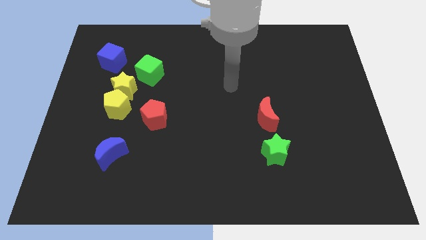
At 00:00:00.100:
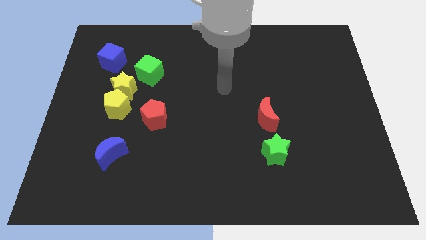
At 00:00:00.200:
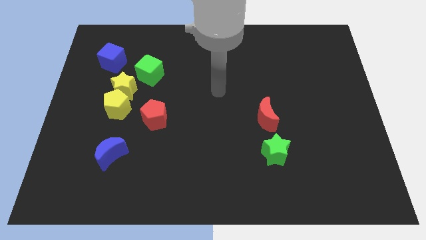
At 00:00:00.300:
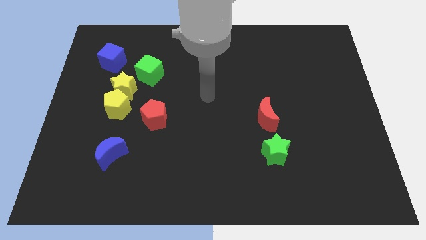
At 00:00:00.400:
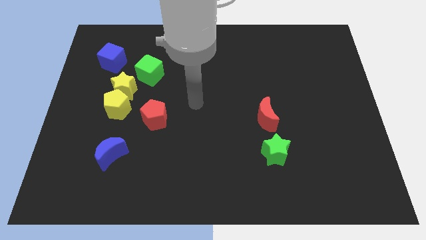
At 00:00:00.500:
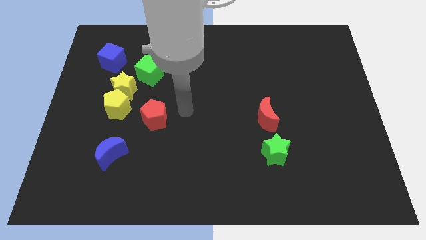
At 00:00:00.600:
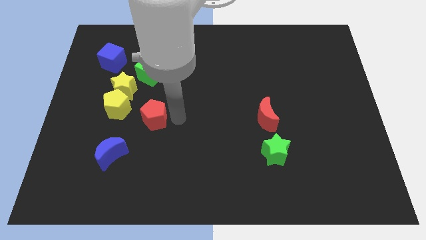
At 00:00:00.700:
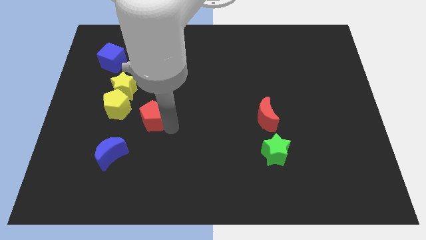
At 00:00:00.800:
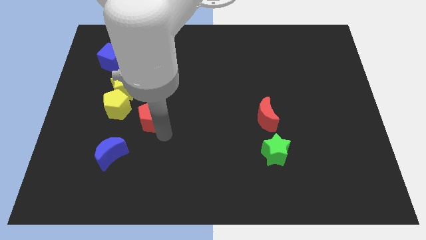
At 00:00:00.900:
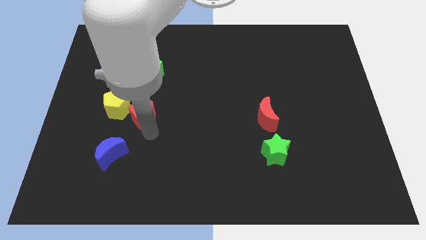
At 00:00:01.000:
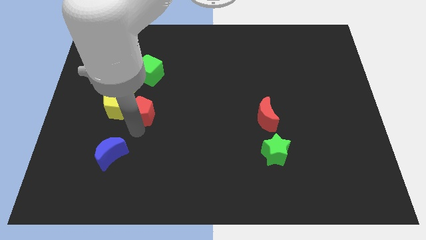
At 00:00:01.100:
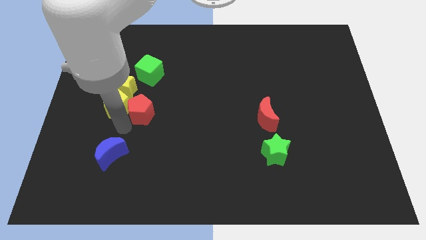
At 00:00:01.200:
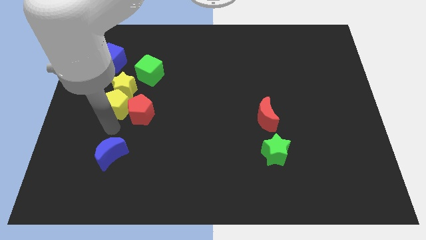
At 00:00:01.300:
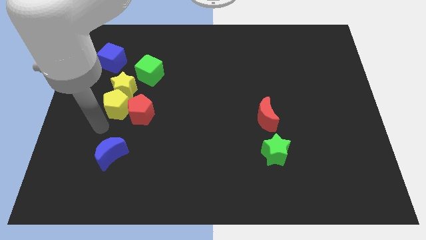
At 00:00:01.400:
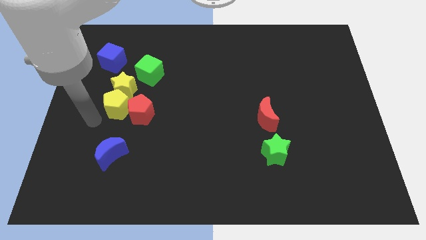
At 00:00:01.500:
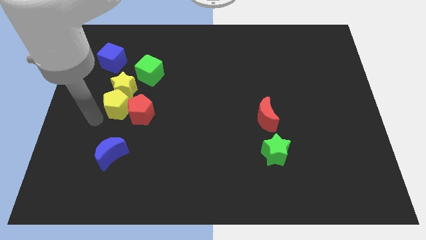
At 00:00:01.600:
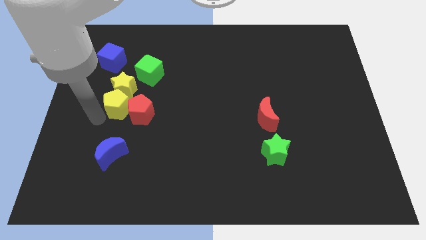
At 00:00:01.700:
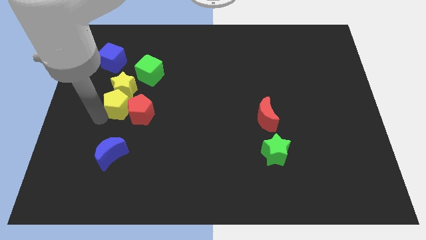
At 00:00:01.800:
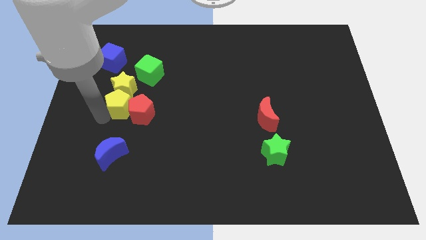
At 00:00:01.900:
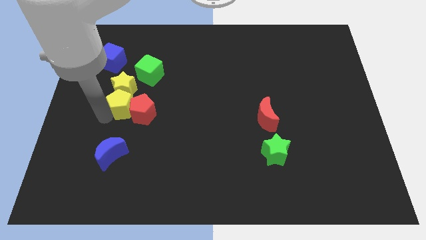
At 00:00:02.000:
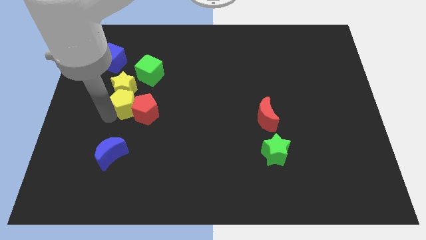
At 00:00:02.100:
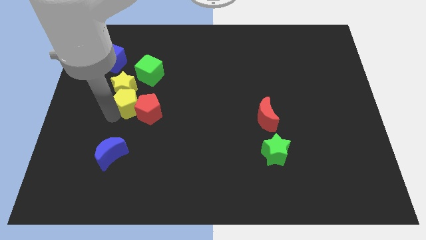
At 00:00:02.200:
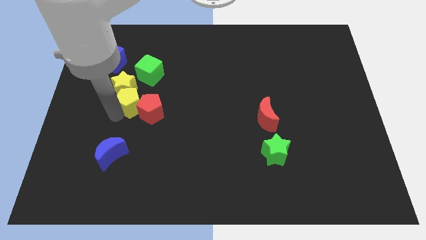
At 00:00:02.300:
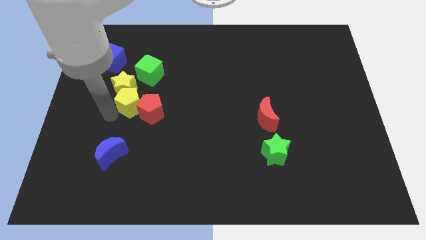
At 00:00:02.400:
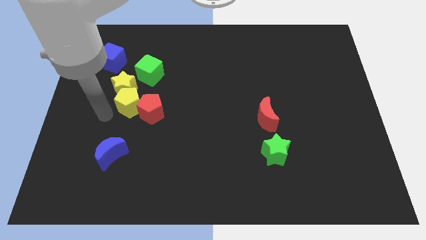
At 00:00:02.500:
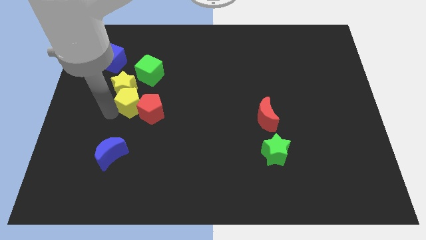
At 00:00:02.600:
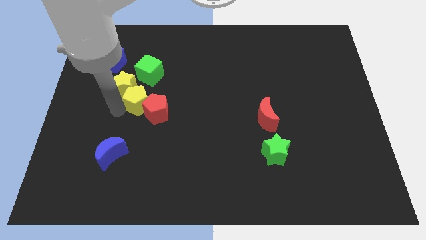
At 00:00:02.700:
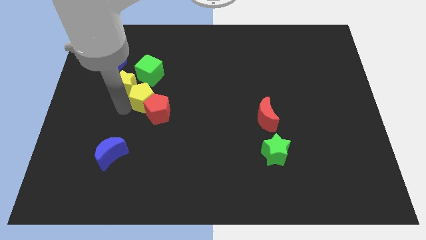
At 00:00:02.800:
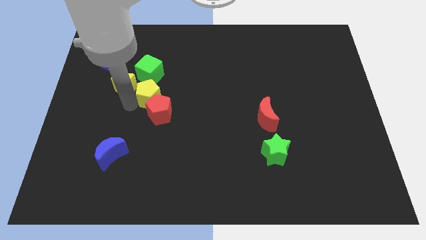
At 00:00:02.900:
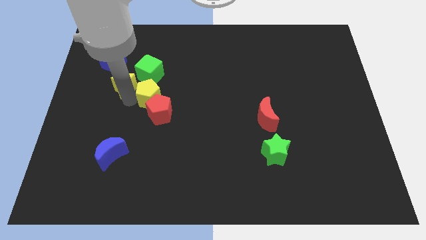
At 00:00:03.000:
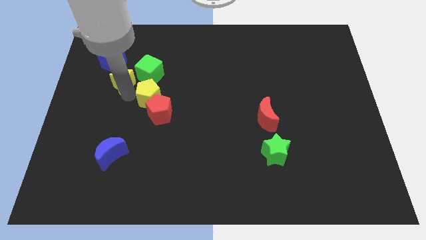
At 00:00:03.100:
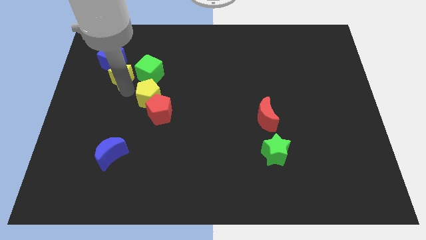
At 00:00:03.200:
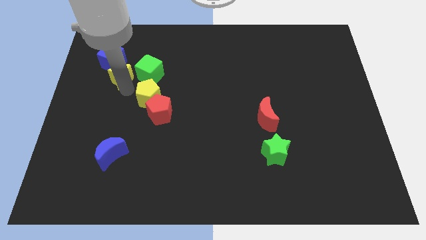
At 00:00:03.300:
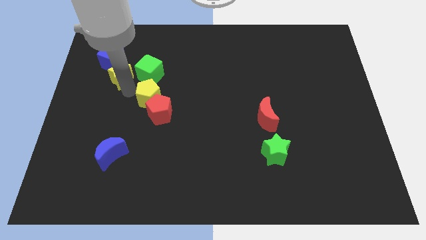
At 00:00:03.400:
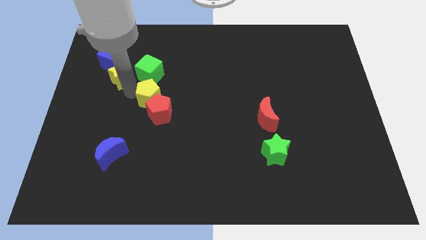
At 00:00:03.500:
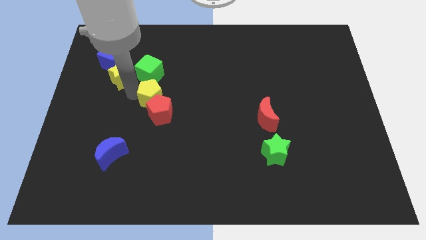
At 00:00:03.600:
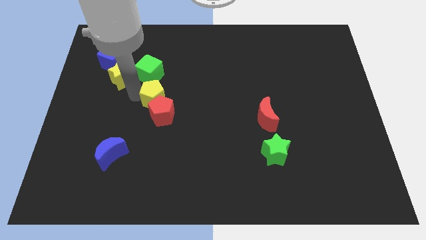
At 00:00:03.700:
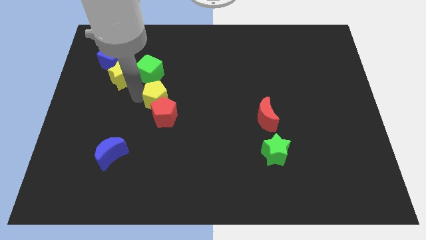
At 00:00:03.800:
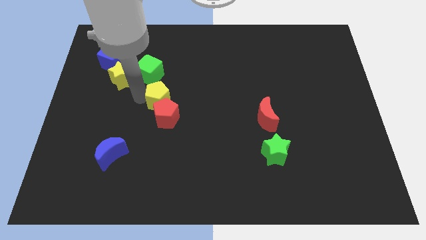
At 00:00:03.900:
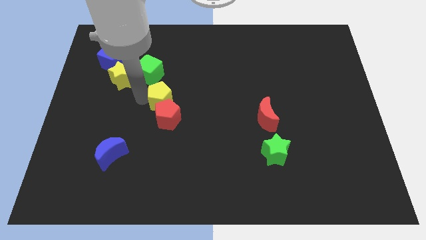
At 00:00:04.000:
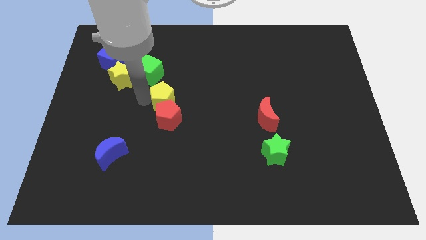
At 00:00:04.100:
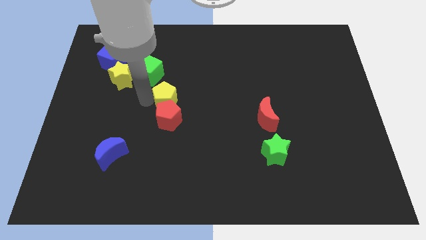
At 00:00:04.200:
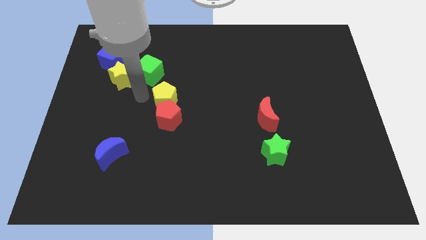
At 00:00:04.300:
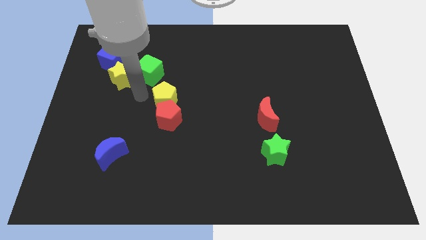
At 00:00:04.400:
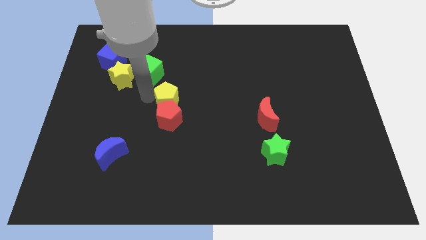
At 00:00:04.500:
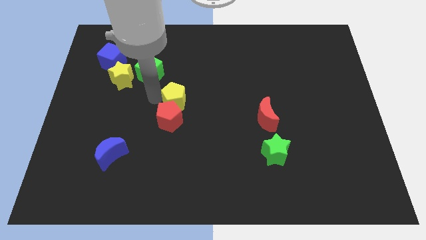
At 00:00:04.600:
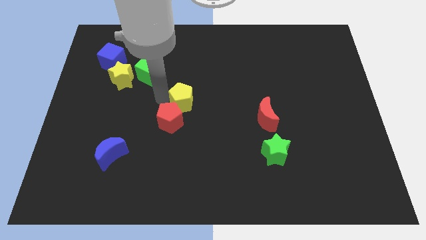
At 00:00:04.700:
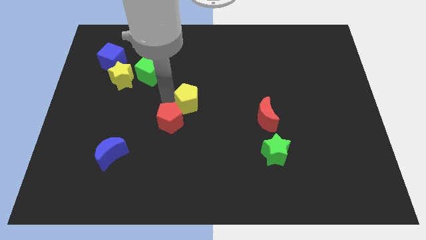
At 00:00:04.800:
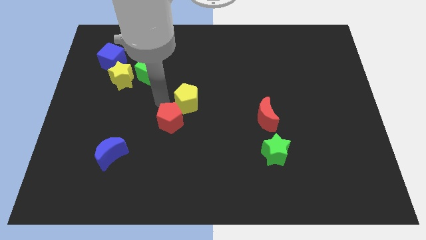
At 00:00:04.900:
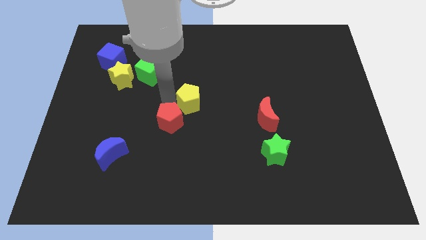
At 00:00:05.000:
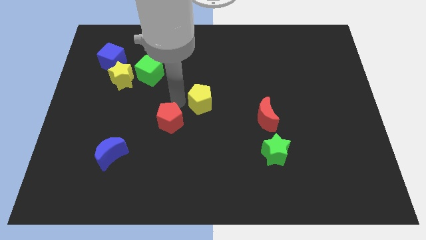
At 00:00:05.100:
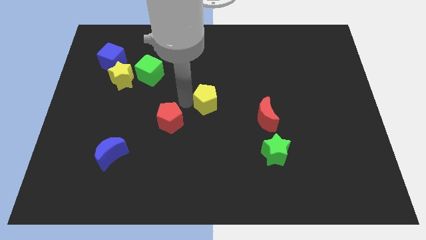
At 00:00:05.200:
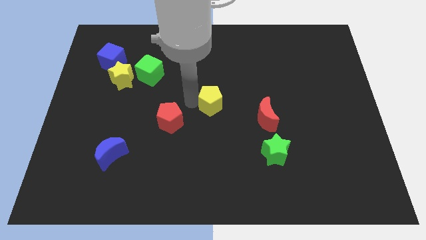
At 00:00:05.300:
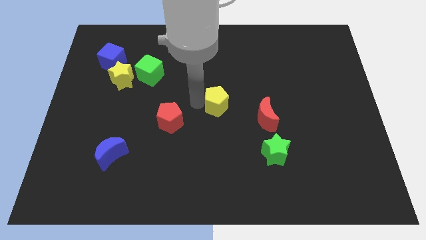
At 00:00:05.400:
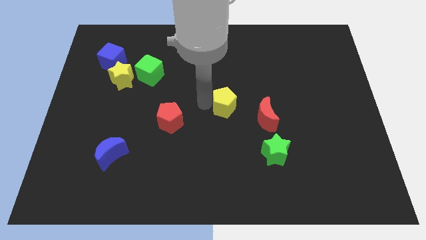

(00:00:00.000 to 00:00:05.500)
slide the yellow pentagon diagonally up and to the left of the red moon

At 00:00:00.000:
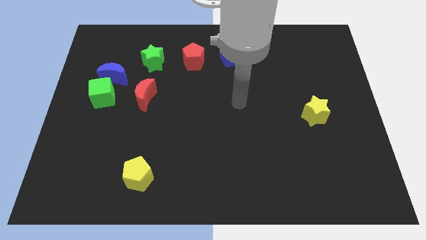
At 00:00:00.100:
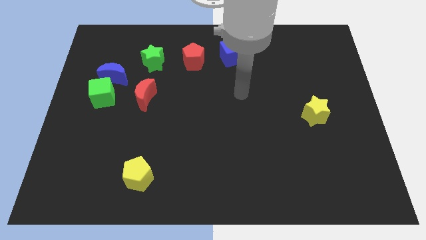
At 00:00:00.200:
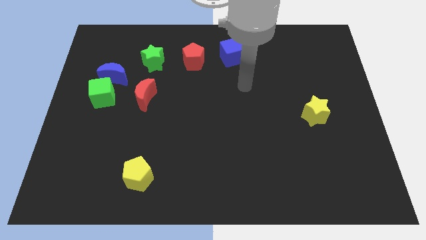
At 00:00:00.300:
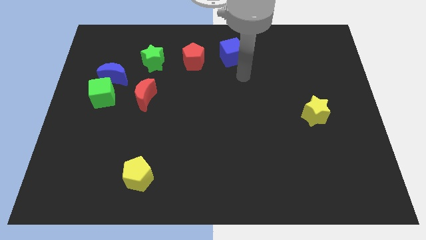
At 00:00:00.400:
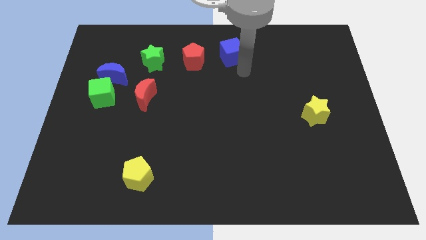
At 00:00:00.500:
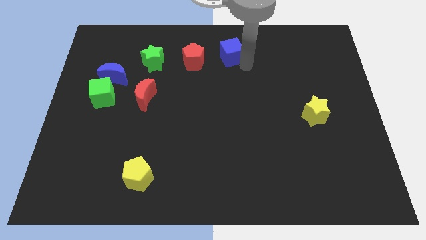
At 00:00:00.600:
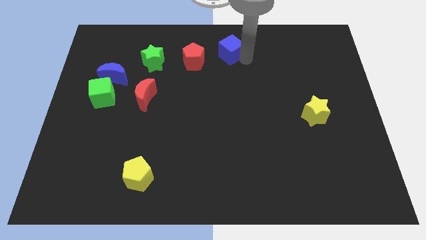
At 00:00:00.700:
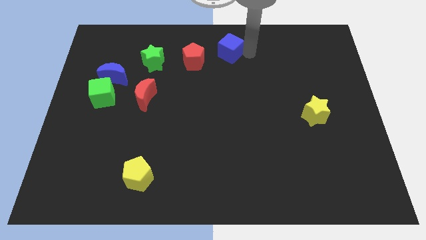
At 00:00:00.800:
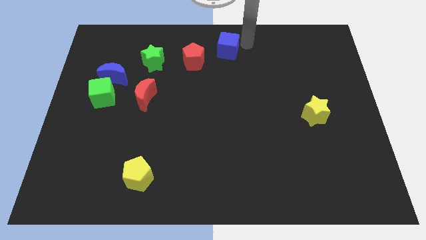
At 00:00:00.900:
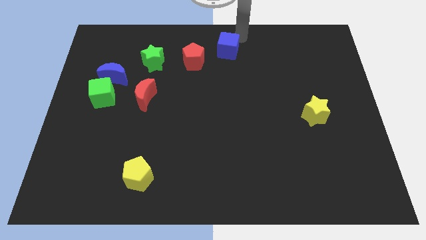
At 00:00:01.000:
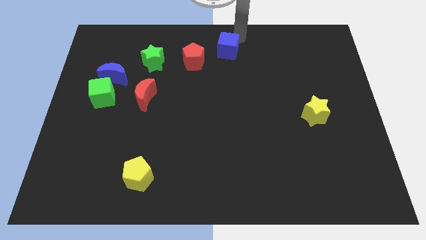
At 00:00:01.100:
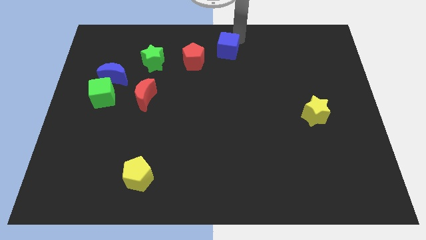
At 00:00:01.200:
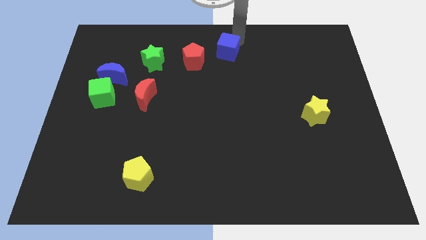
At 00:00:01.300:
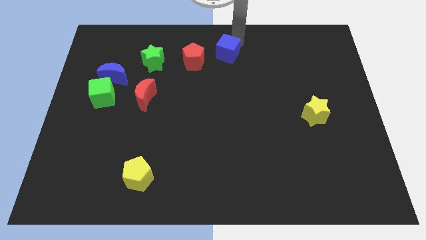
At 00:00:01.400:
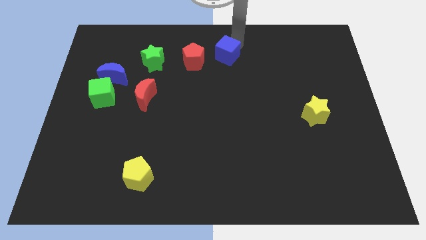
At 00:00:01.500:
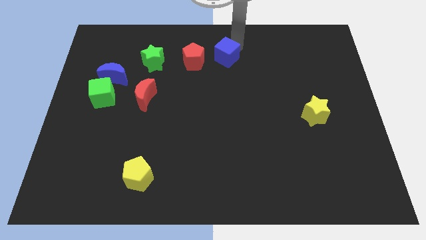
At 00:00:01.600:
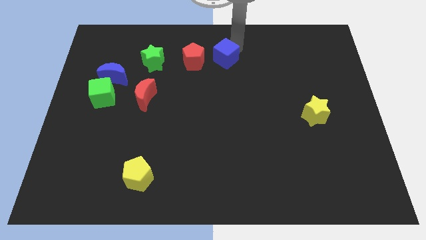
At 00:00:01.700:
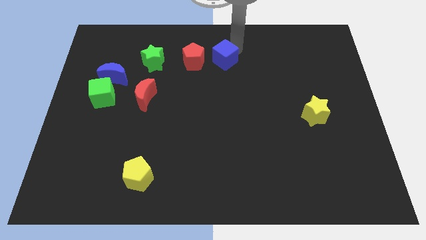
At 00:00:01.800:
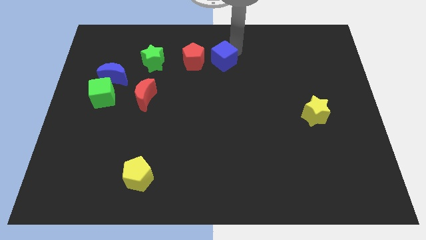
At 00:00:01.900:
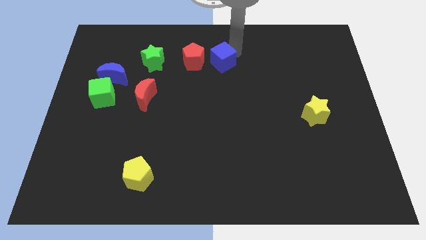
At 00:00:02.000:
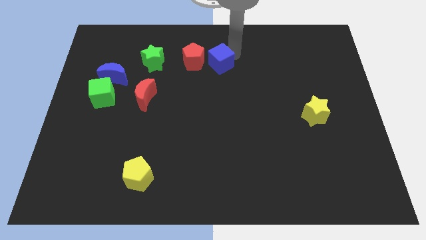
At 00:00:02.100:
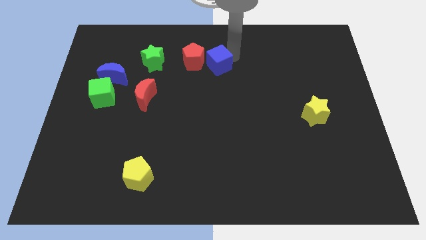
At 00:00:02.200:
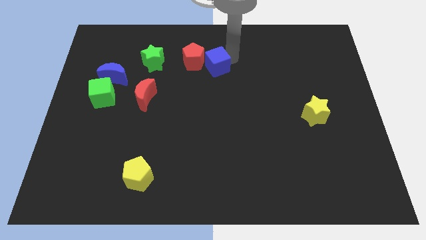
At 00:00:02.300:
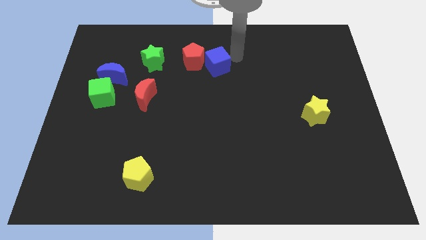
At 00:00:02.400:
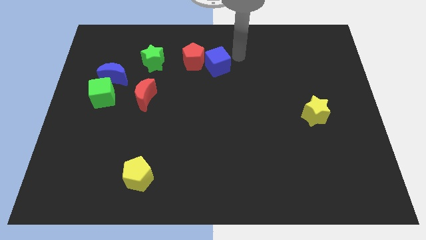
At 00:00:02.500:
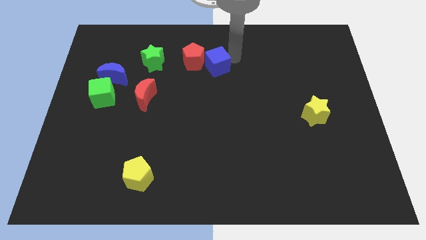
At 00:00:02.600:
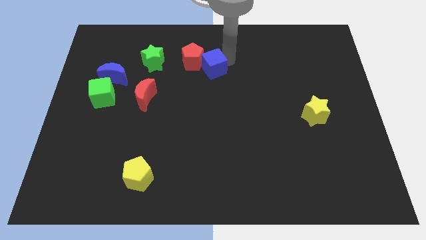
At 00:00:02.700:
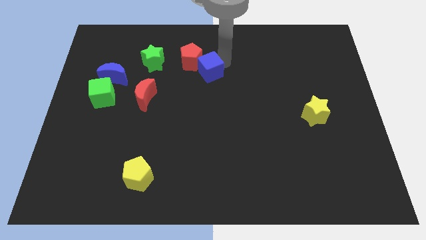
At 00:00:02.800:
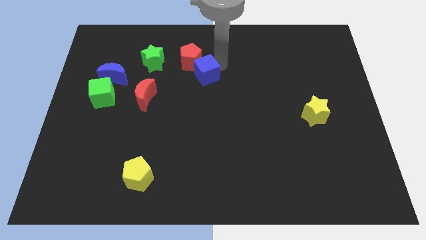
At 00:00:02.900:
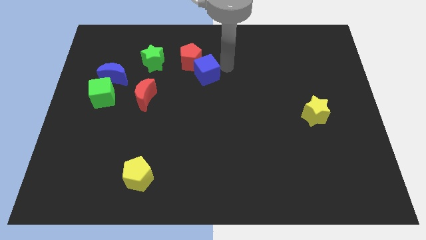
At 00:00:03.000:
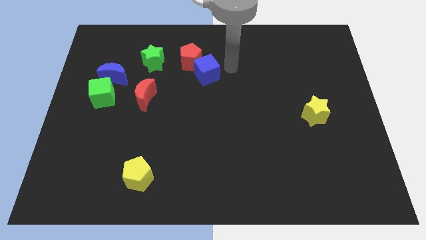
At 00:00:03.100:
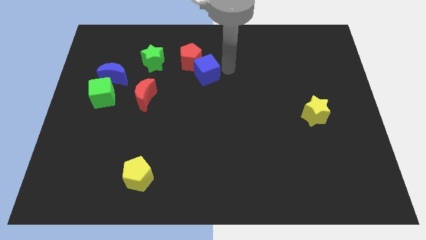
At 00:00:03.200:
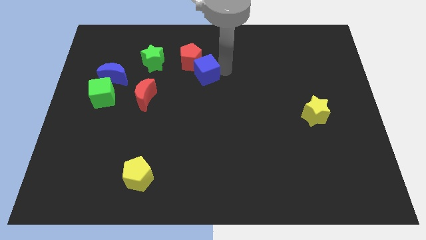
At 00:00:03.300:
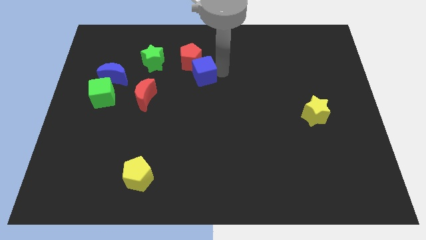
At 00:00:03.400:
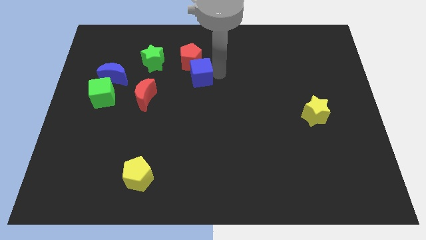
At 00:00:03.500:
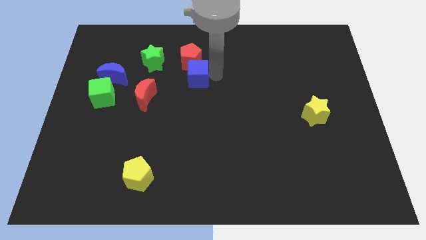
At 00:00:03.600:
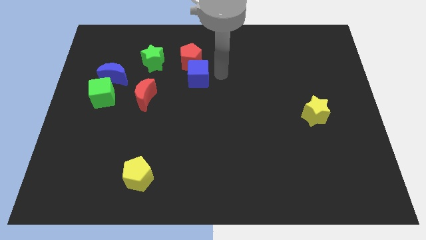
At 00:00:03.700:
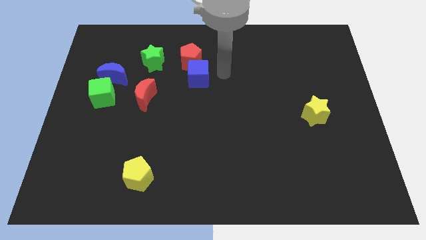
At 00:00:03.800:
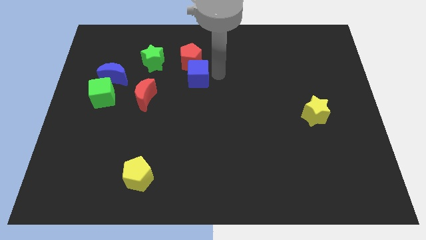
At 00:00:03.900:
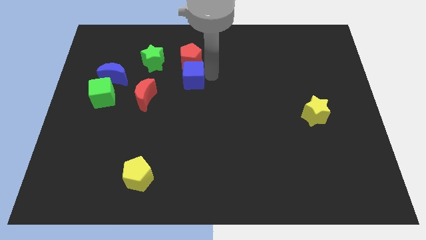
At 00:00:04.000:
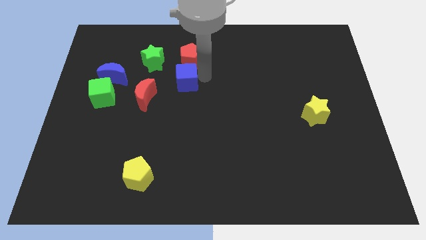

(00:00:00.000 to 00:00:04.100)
slide the blue cube to the top right of the red moon
